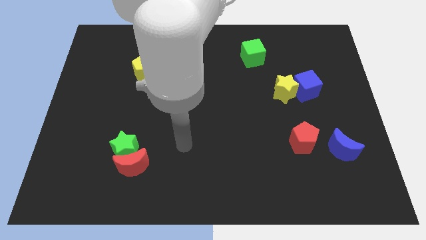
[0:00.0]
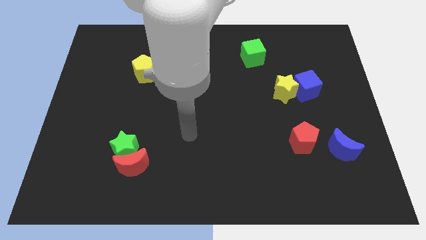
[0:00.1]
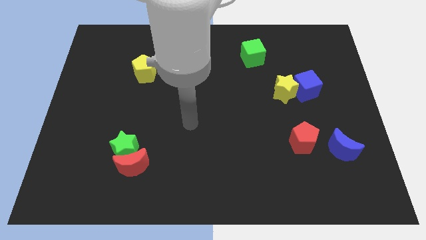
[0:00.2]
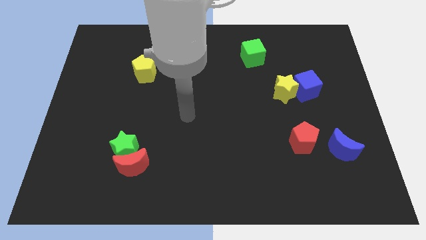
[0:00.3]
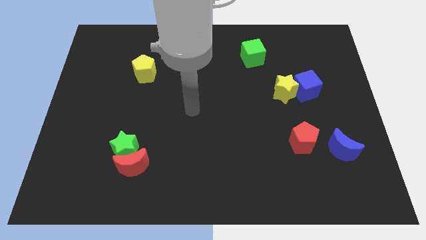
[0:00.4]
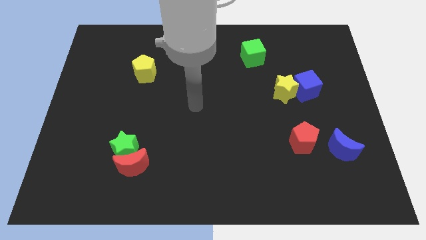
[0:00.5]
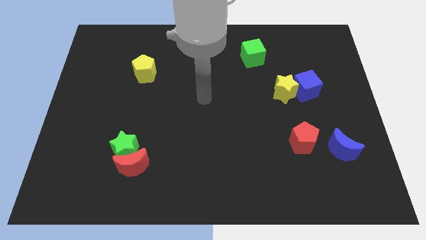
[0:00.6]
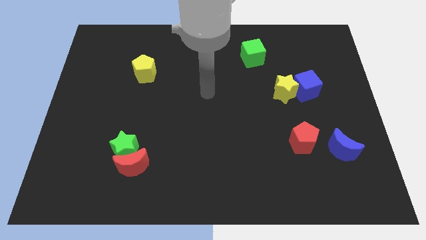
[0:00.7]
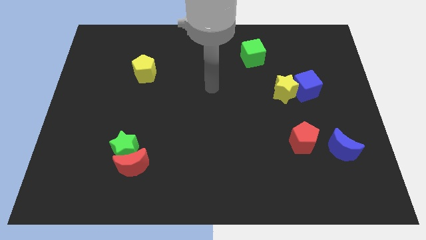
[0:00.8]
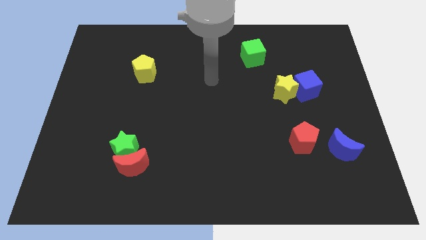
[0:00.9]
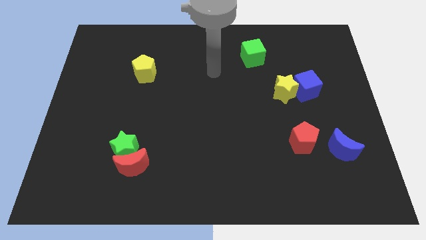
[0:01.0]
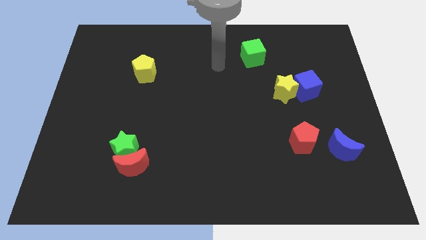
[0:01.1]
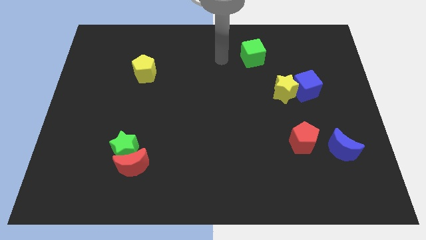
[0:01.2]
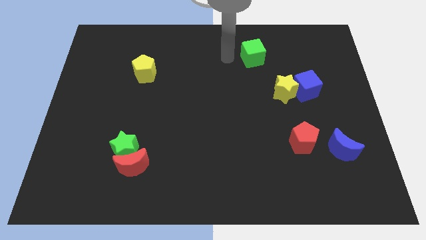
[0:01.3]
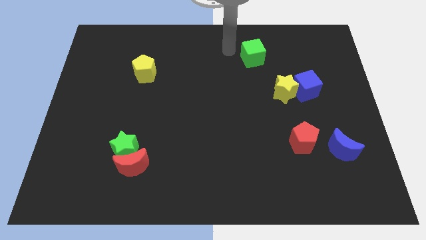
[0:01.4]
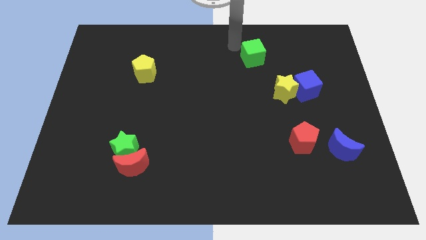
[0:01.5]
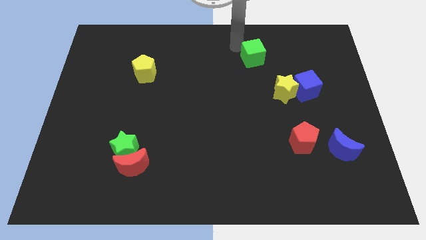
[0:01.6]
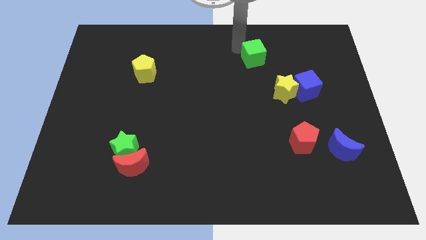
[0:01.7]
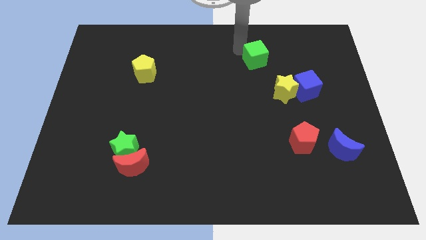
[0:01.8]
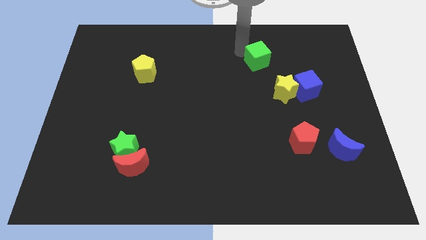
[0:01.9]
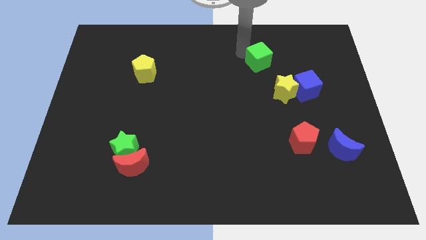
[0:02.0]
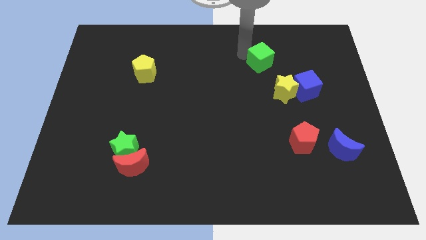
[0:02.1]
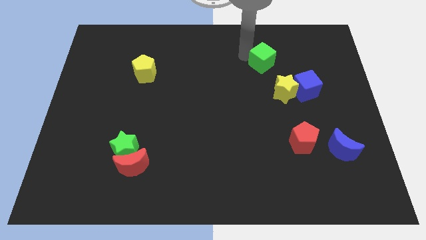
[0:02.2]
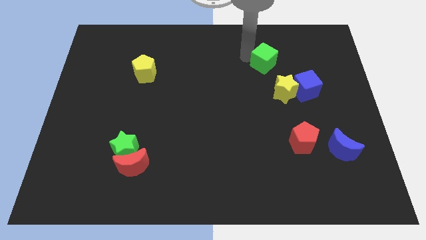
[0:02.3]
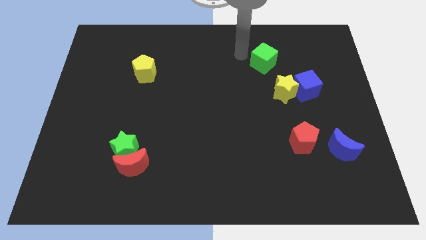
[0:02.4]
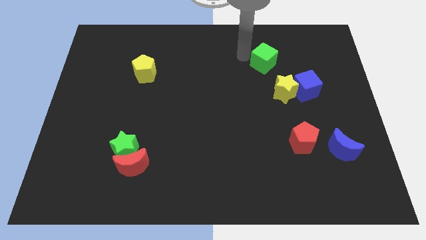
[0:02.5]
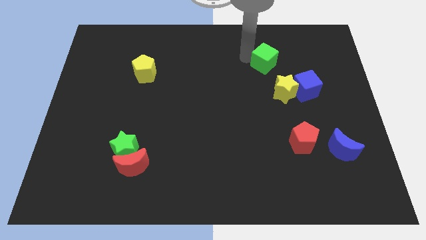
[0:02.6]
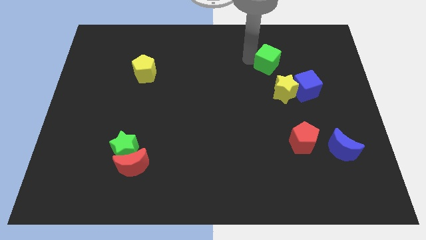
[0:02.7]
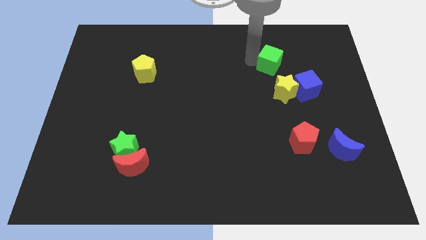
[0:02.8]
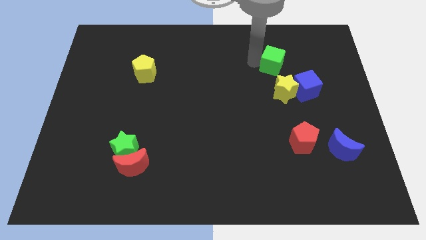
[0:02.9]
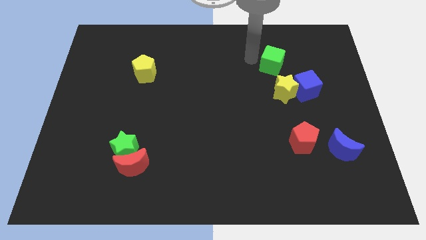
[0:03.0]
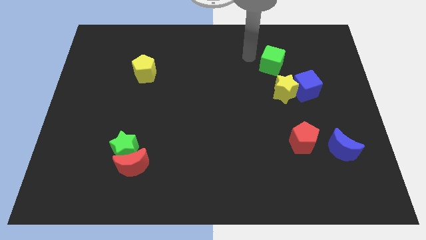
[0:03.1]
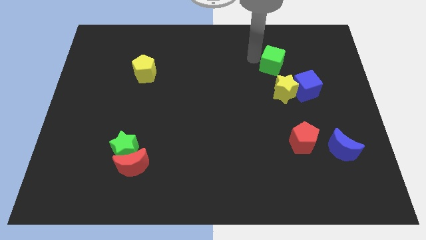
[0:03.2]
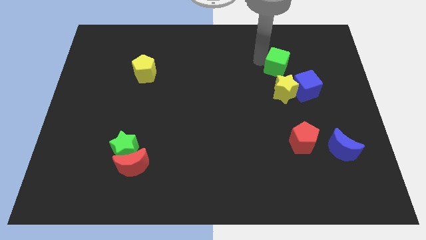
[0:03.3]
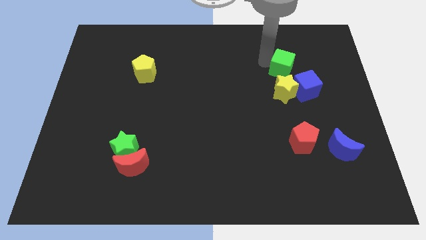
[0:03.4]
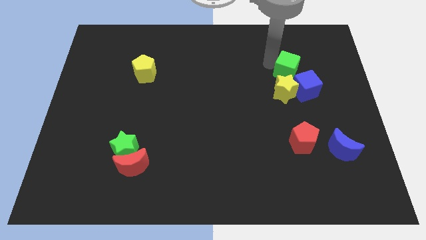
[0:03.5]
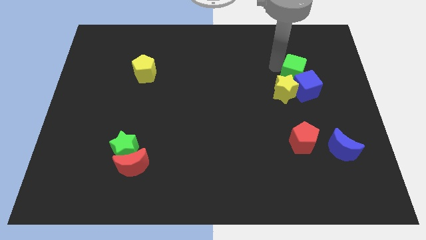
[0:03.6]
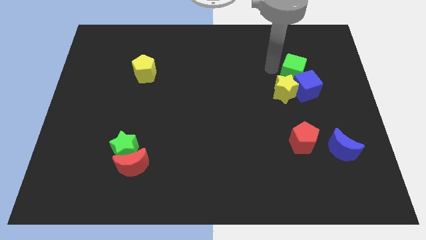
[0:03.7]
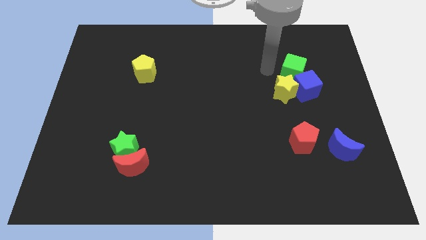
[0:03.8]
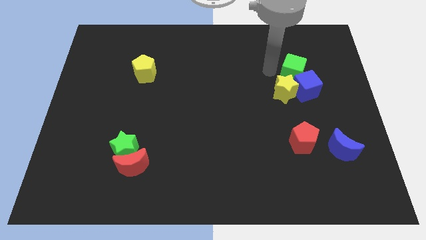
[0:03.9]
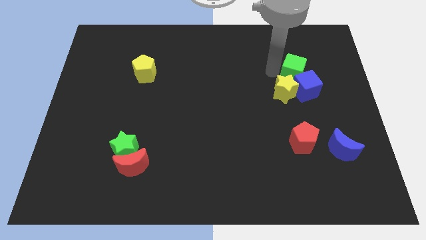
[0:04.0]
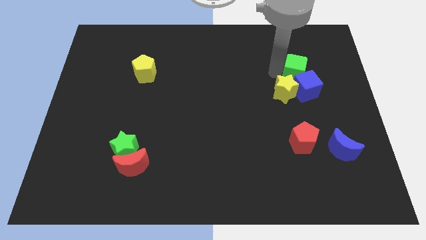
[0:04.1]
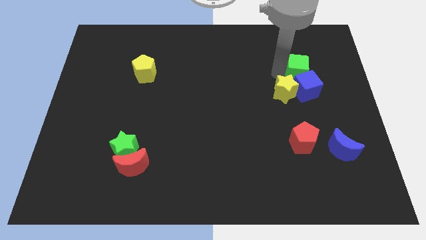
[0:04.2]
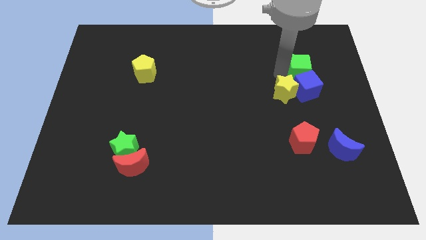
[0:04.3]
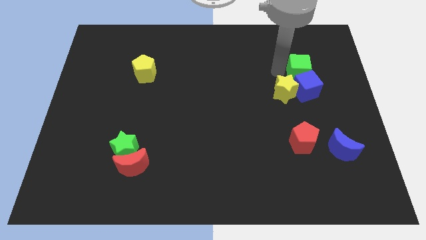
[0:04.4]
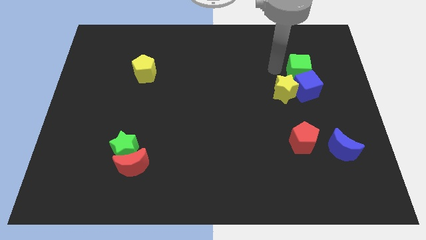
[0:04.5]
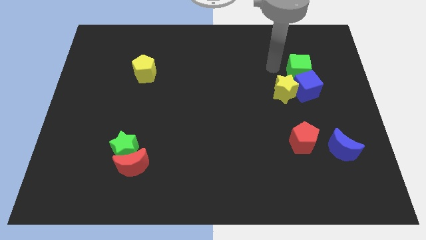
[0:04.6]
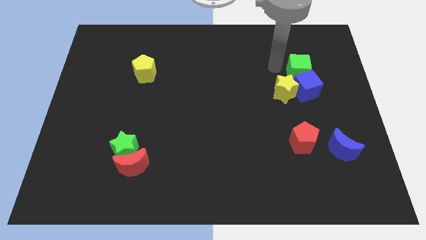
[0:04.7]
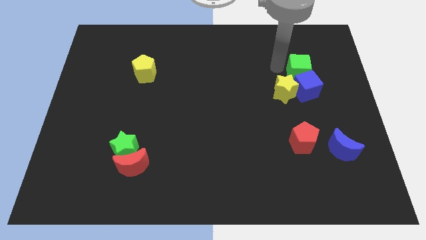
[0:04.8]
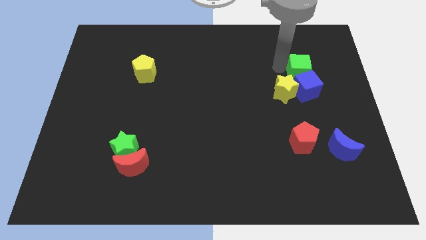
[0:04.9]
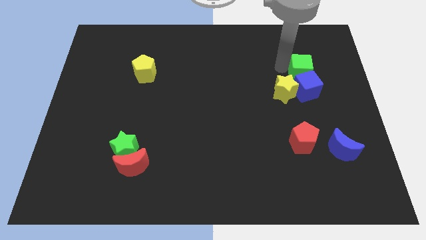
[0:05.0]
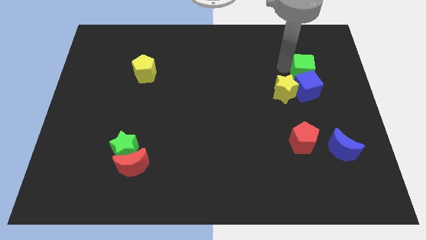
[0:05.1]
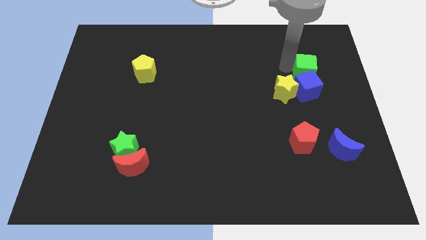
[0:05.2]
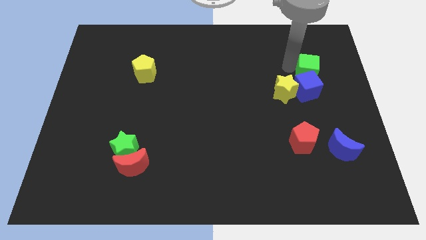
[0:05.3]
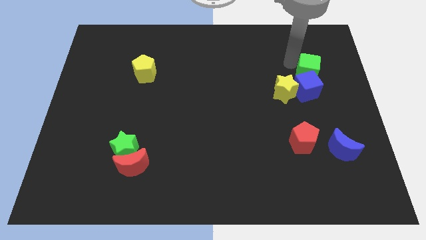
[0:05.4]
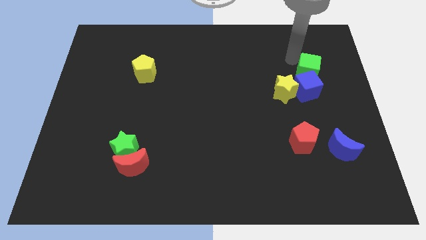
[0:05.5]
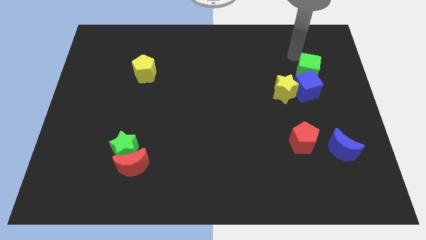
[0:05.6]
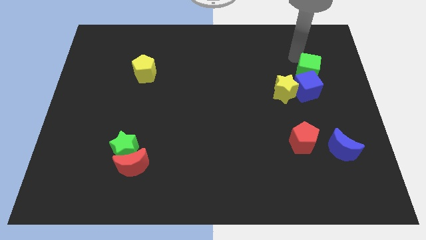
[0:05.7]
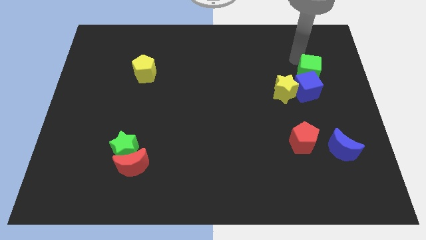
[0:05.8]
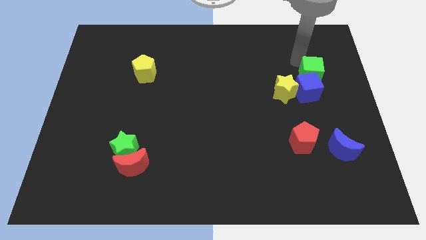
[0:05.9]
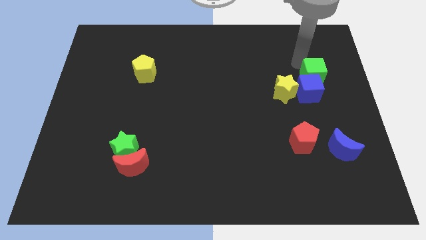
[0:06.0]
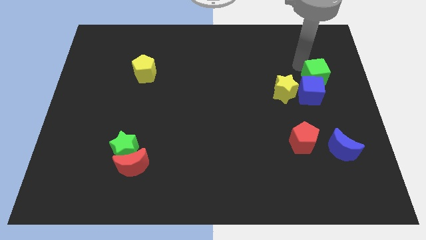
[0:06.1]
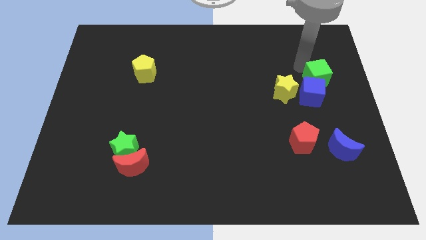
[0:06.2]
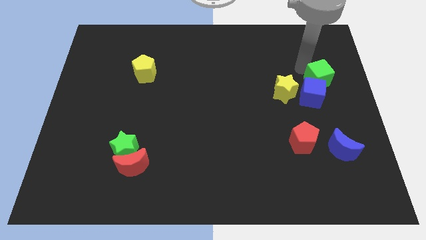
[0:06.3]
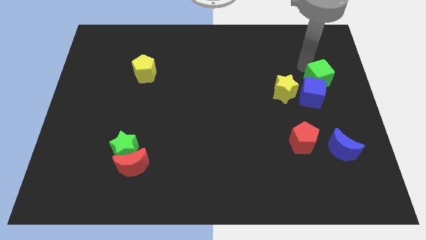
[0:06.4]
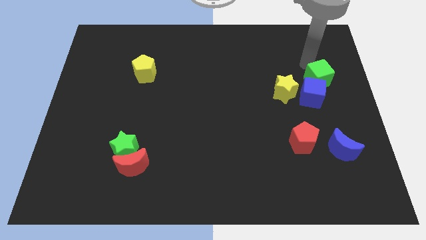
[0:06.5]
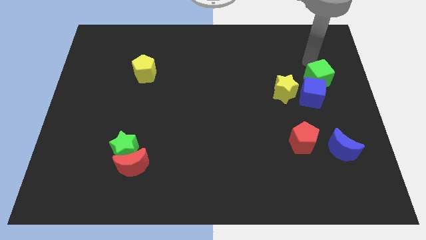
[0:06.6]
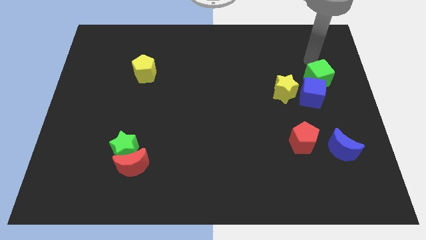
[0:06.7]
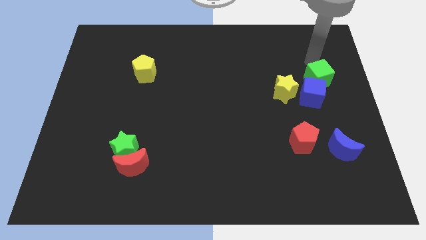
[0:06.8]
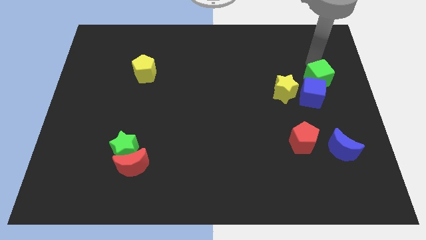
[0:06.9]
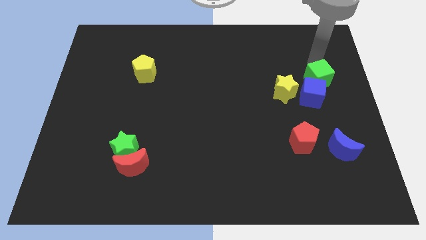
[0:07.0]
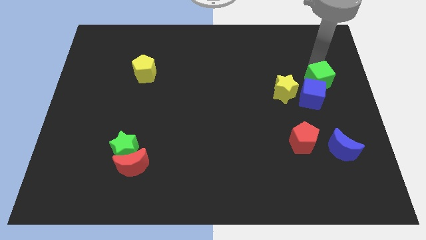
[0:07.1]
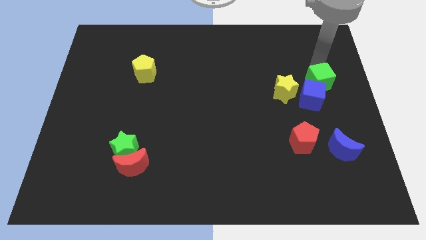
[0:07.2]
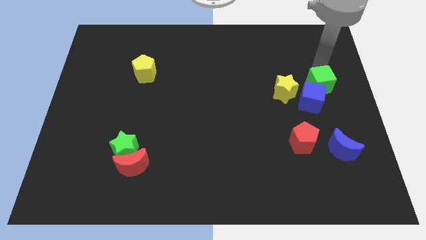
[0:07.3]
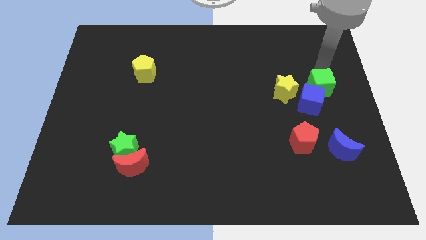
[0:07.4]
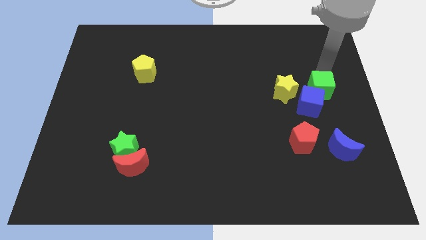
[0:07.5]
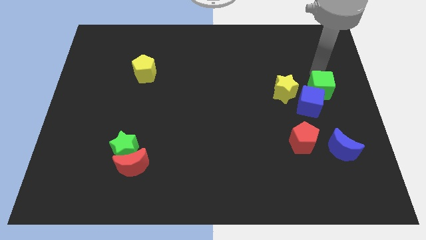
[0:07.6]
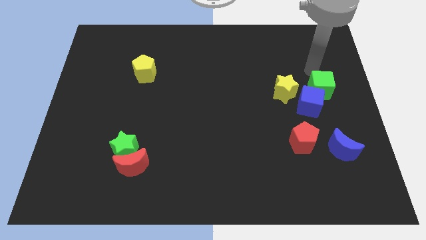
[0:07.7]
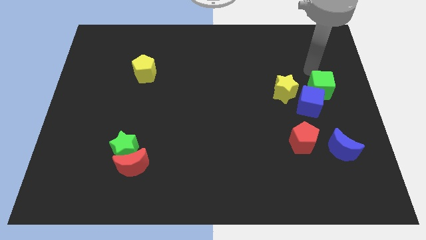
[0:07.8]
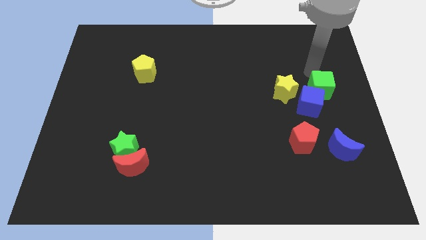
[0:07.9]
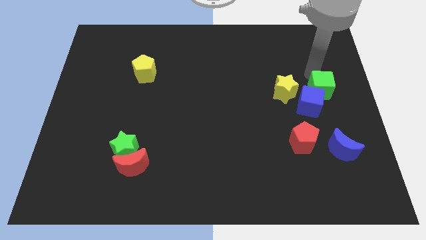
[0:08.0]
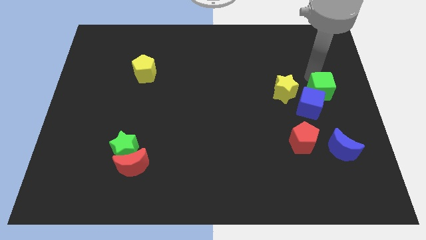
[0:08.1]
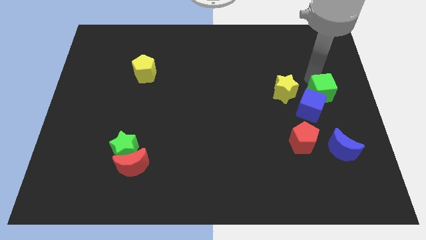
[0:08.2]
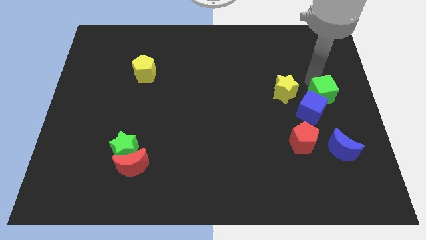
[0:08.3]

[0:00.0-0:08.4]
put the green cube to the top side of the blue moon
